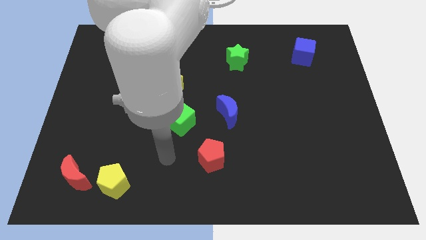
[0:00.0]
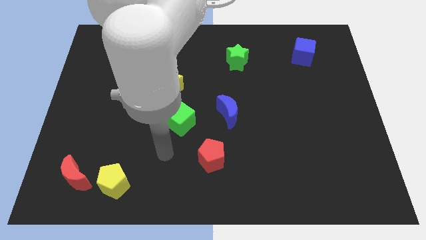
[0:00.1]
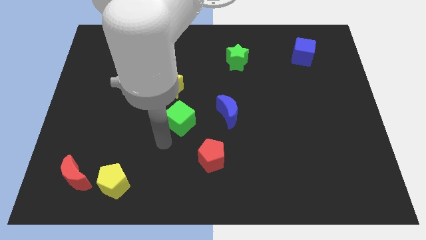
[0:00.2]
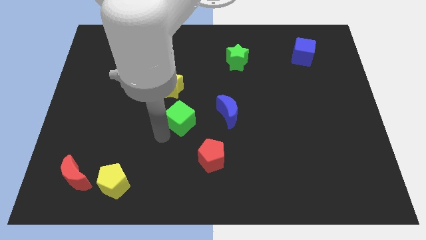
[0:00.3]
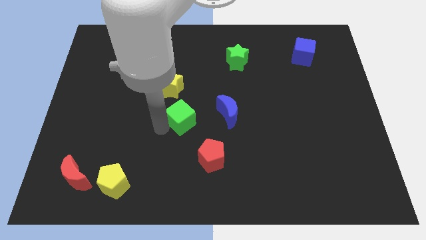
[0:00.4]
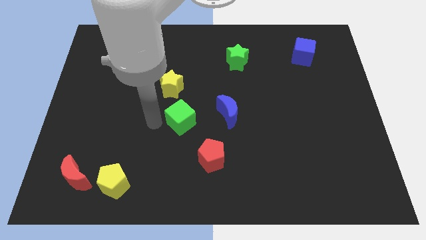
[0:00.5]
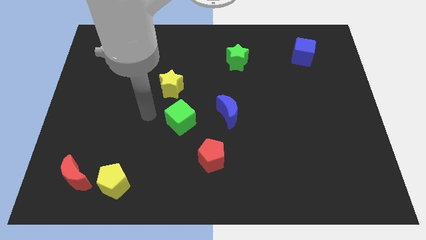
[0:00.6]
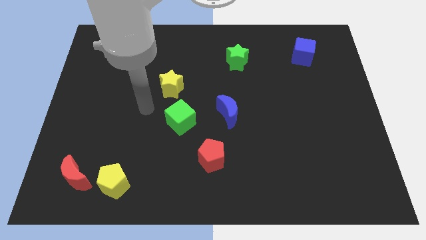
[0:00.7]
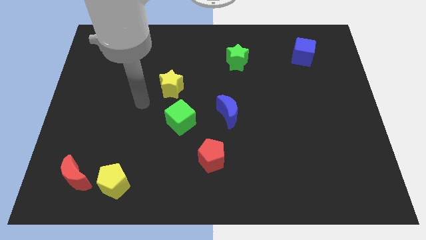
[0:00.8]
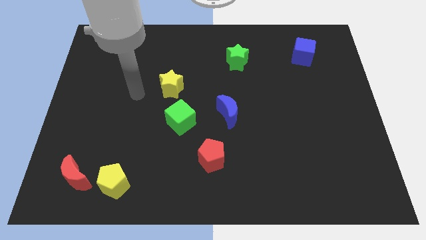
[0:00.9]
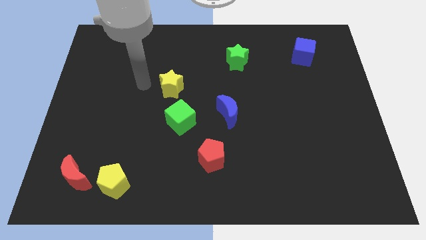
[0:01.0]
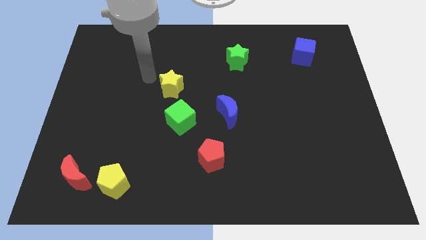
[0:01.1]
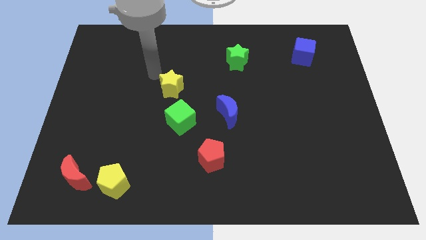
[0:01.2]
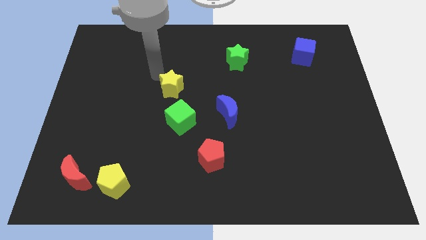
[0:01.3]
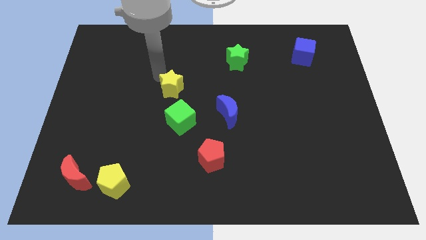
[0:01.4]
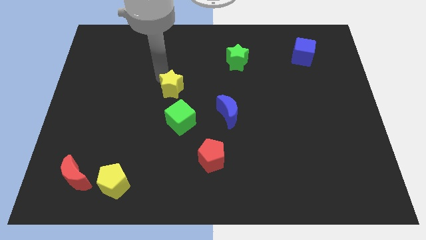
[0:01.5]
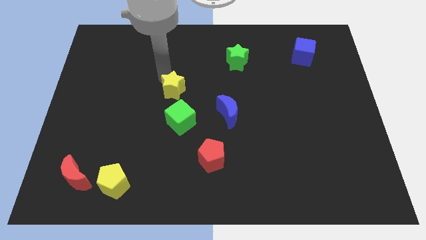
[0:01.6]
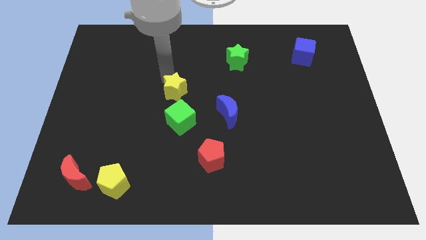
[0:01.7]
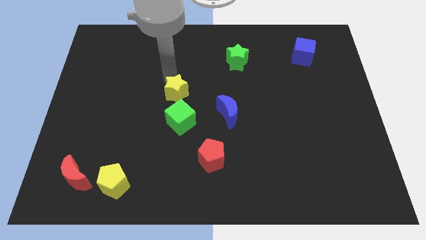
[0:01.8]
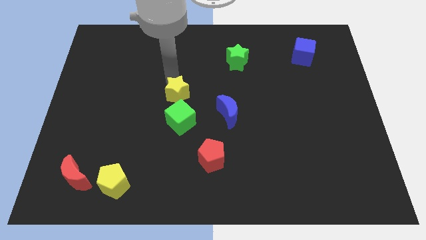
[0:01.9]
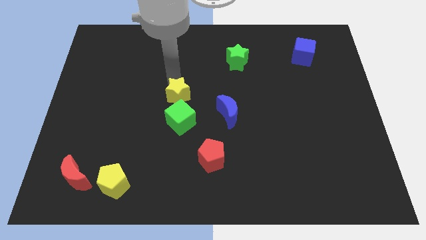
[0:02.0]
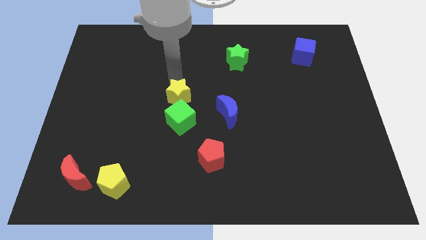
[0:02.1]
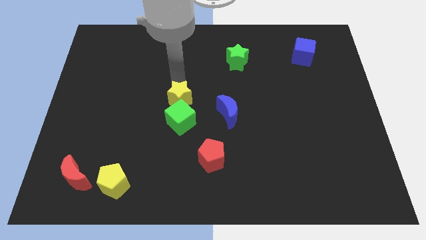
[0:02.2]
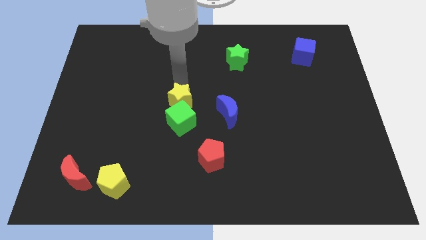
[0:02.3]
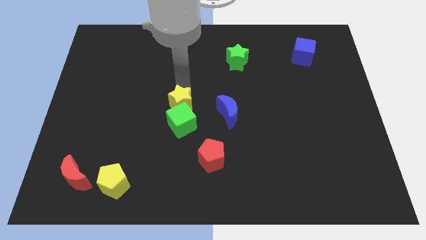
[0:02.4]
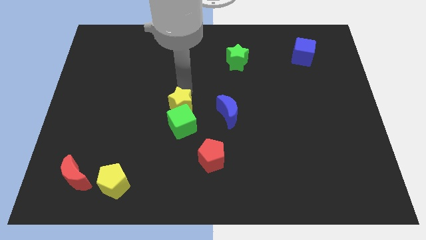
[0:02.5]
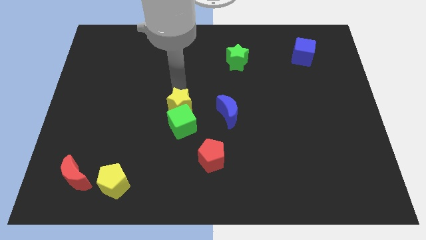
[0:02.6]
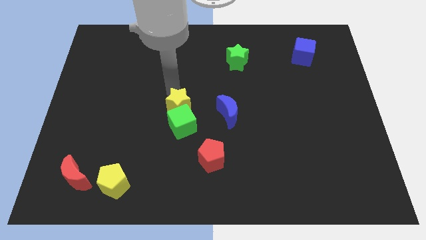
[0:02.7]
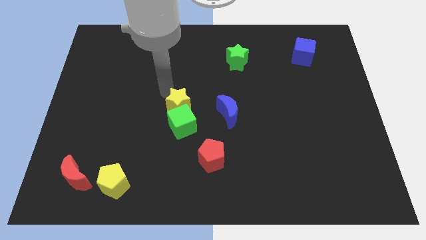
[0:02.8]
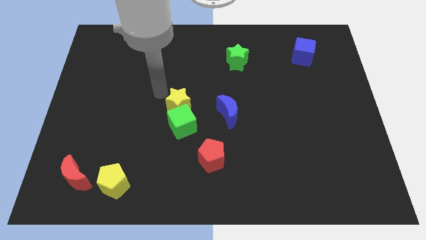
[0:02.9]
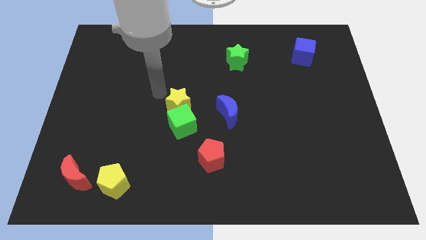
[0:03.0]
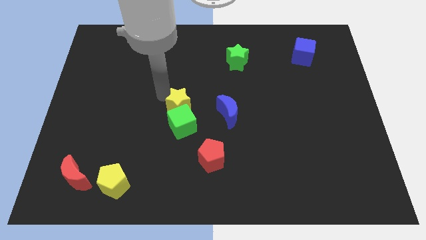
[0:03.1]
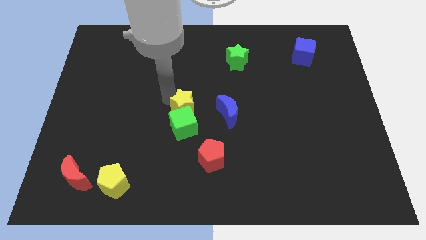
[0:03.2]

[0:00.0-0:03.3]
slide the yellow star a little downwards and to the right diagonally

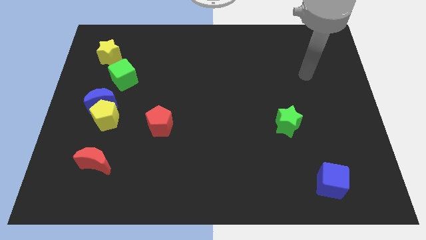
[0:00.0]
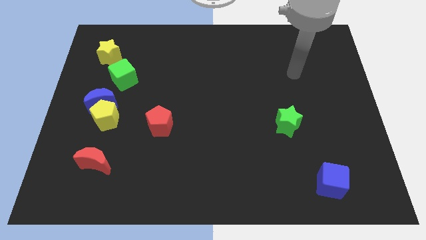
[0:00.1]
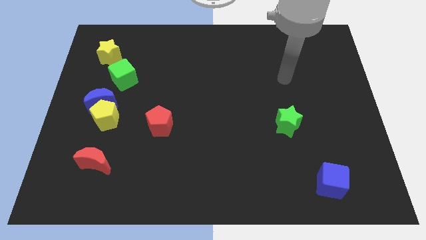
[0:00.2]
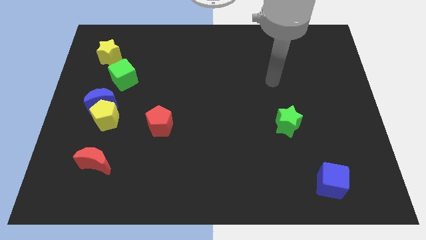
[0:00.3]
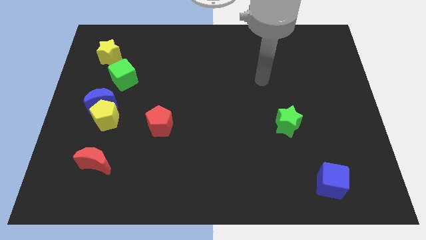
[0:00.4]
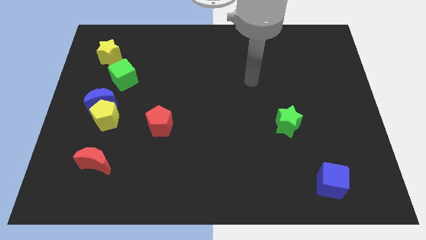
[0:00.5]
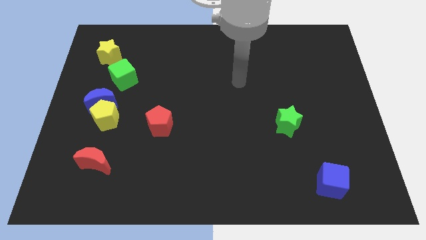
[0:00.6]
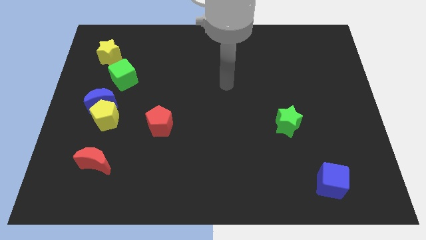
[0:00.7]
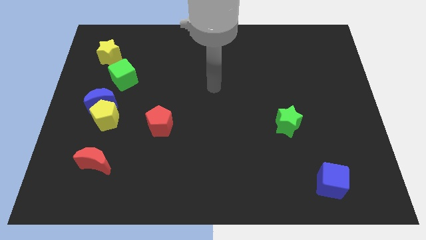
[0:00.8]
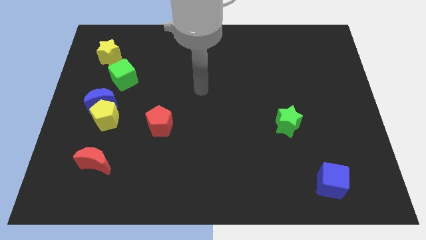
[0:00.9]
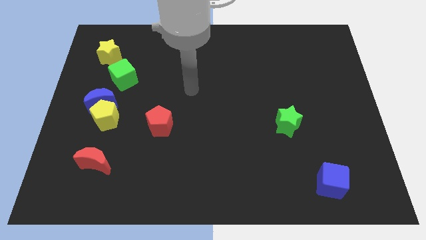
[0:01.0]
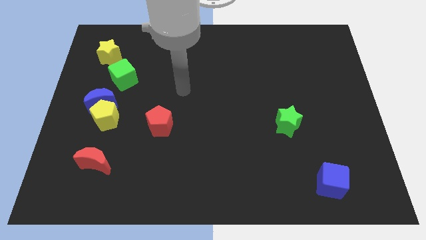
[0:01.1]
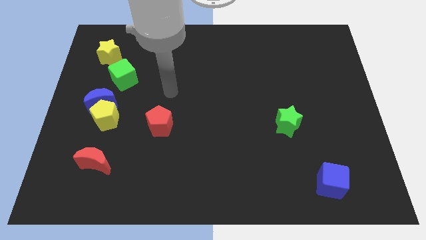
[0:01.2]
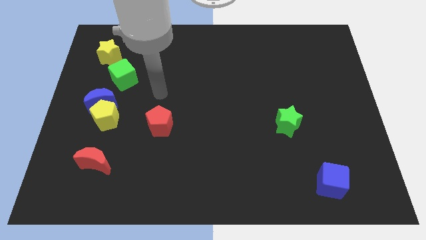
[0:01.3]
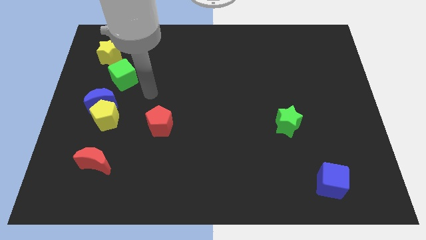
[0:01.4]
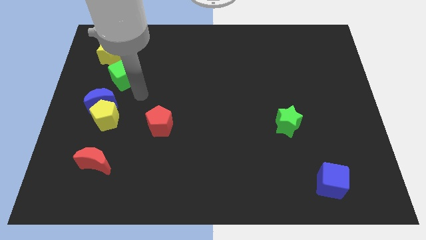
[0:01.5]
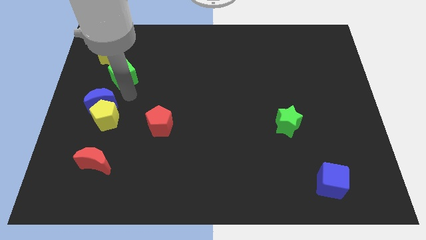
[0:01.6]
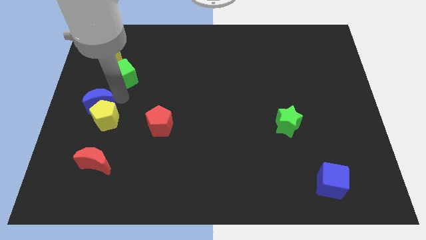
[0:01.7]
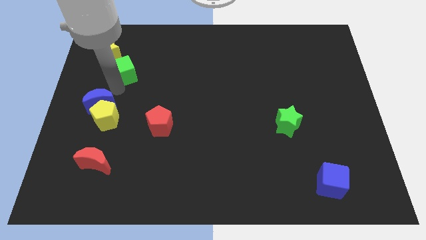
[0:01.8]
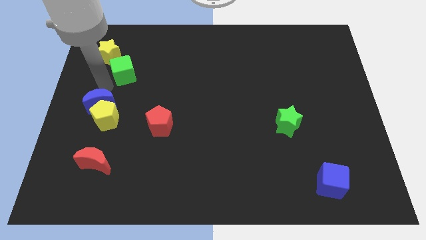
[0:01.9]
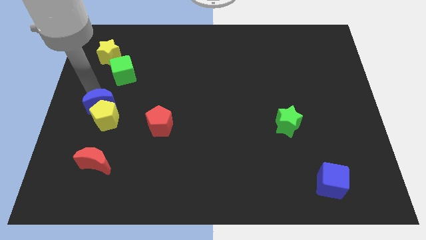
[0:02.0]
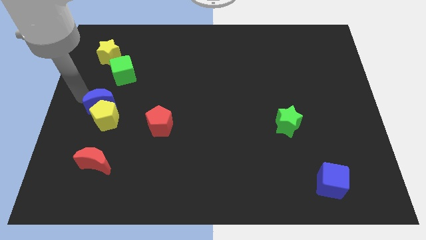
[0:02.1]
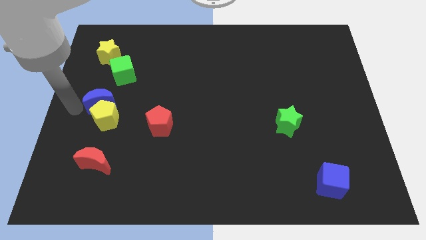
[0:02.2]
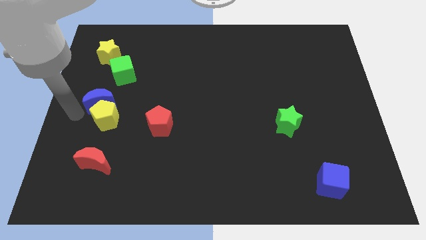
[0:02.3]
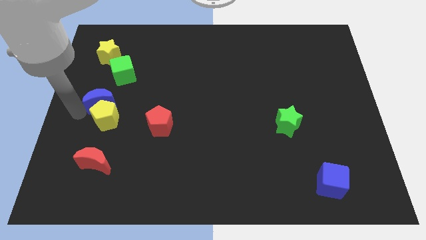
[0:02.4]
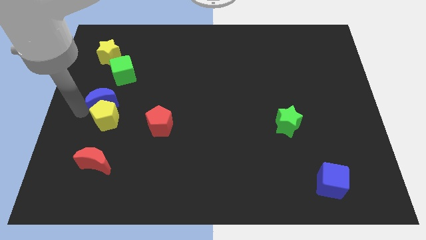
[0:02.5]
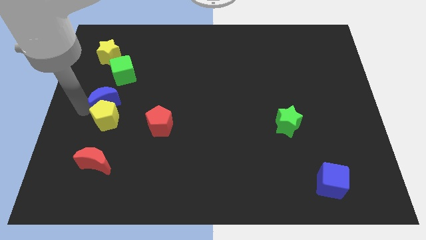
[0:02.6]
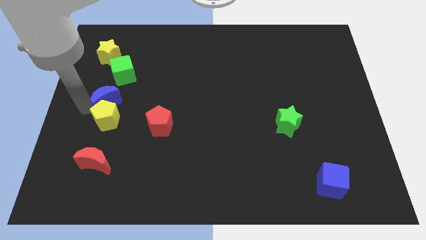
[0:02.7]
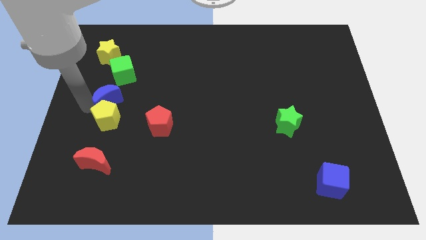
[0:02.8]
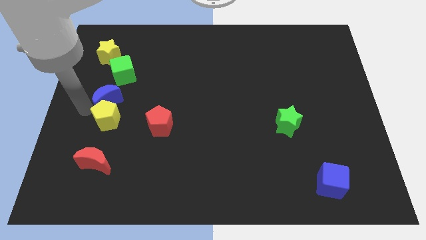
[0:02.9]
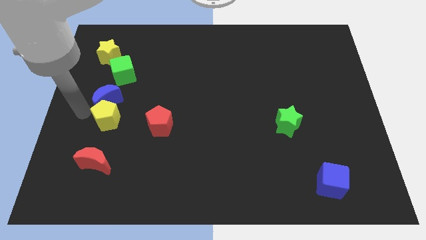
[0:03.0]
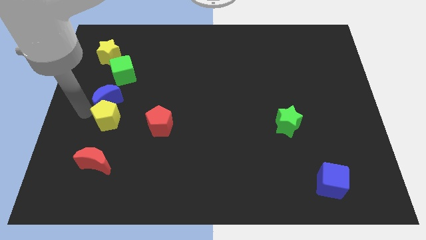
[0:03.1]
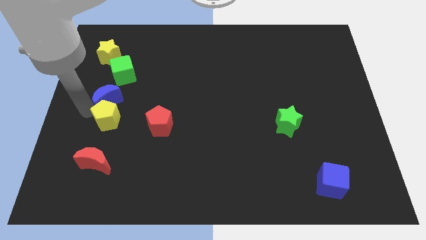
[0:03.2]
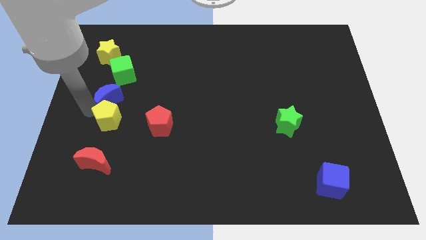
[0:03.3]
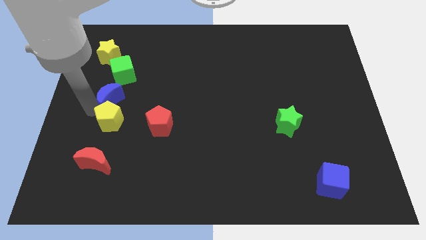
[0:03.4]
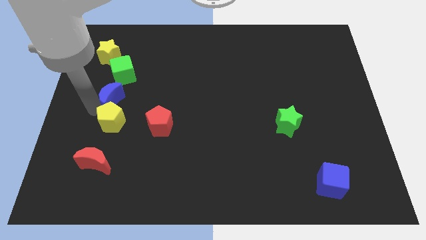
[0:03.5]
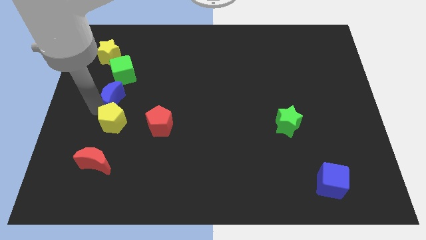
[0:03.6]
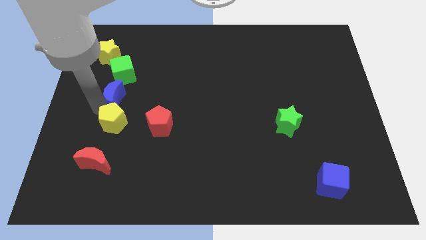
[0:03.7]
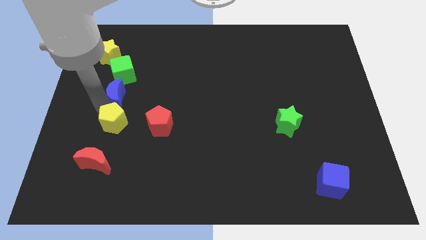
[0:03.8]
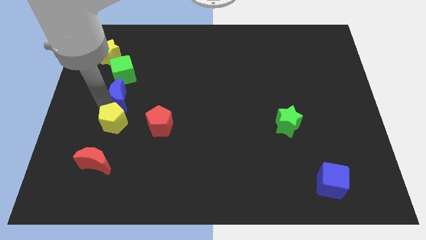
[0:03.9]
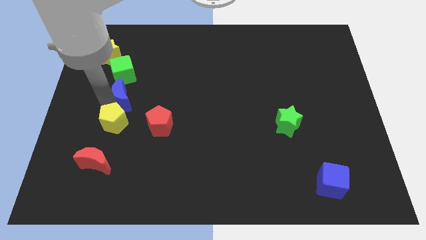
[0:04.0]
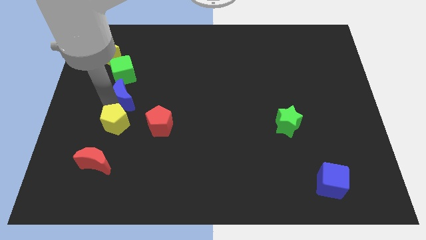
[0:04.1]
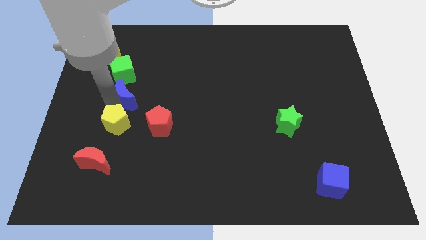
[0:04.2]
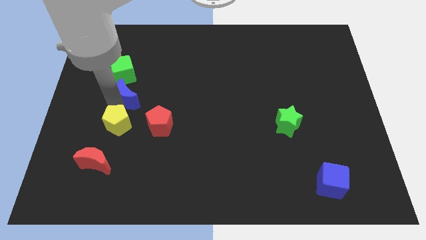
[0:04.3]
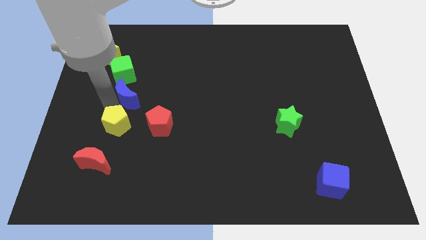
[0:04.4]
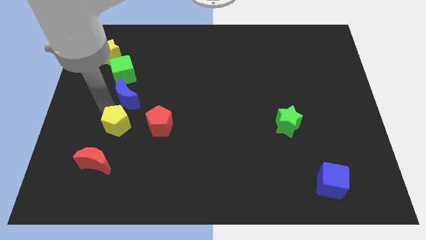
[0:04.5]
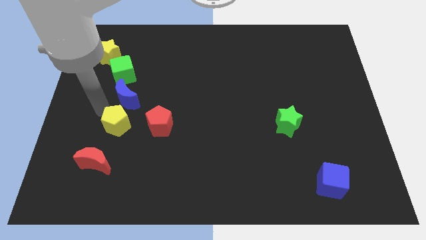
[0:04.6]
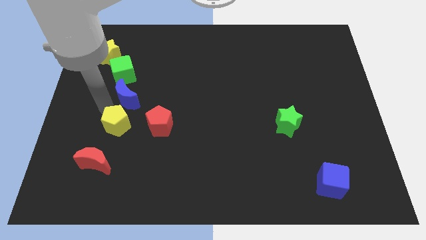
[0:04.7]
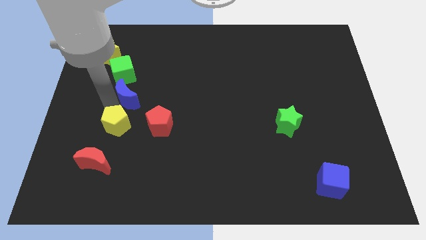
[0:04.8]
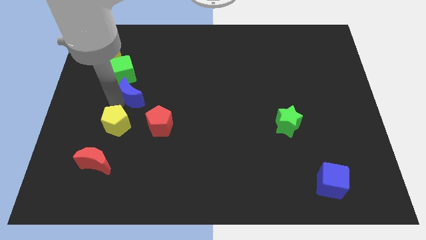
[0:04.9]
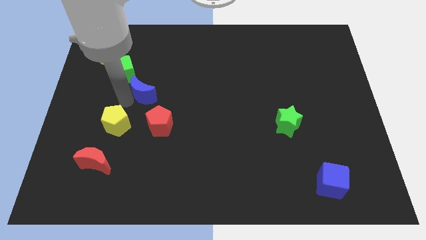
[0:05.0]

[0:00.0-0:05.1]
slightly push the blue moon up and right diagonally
